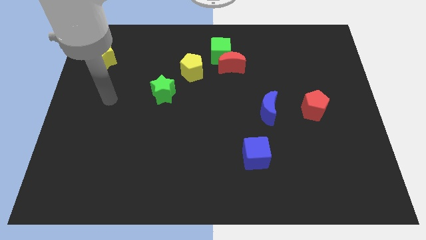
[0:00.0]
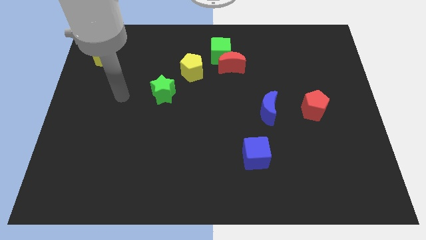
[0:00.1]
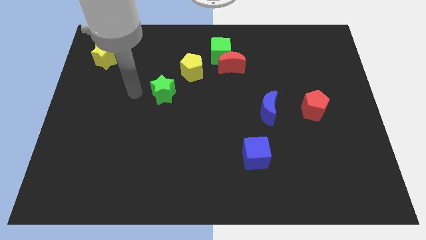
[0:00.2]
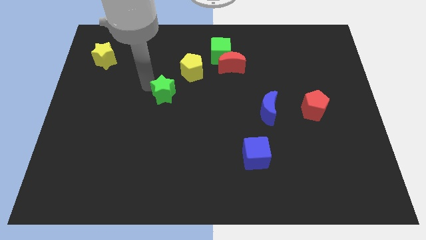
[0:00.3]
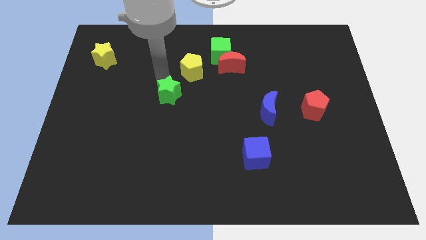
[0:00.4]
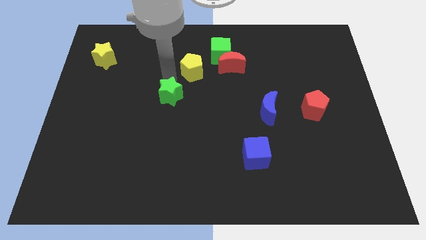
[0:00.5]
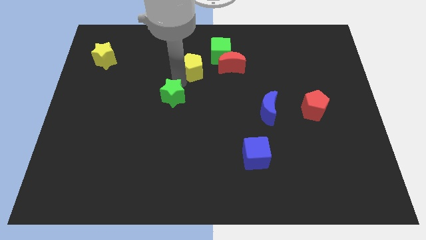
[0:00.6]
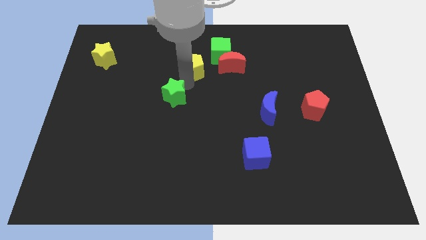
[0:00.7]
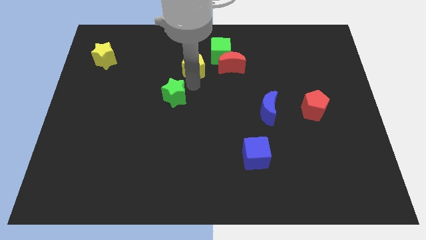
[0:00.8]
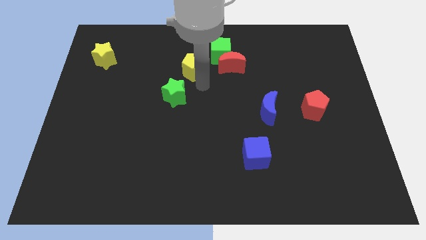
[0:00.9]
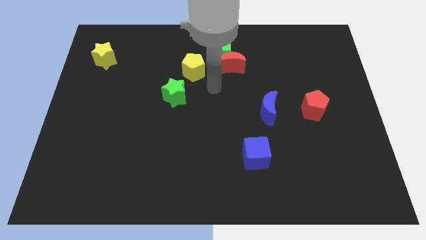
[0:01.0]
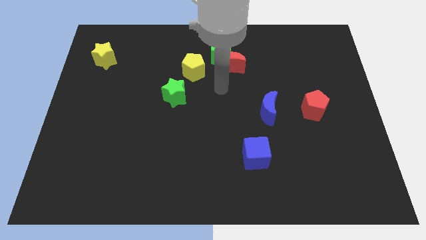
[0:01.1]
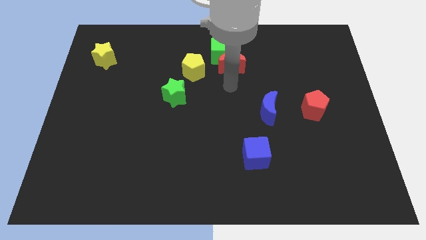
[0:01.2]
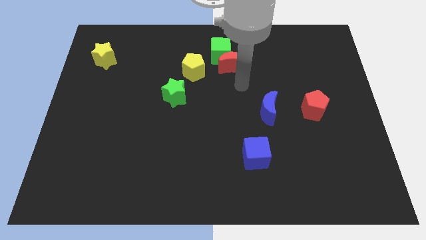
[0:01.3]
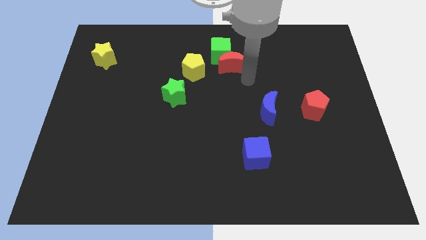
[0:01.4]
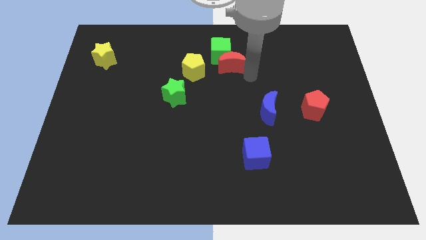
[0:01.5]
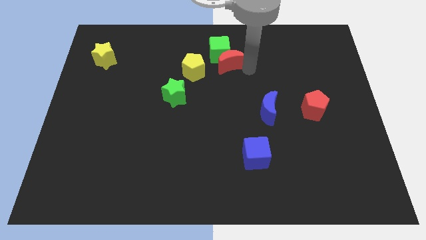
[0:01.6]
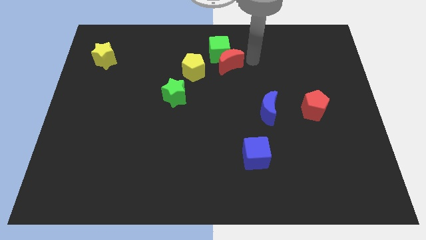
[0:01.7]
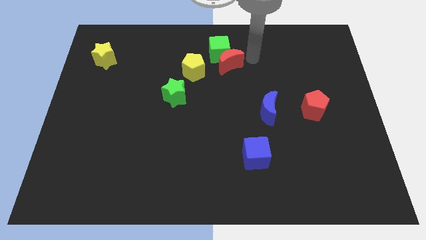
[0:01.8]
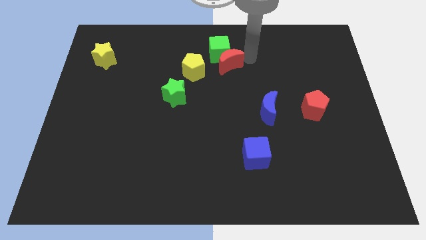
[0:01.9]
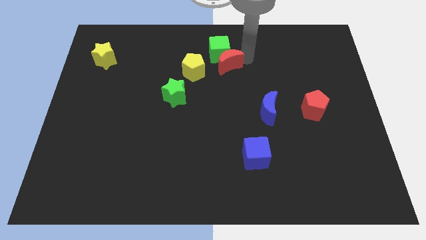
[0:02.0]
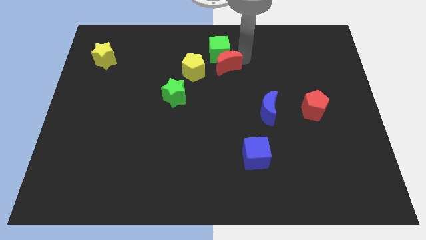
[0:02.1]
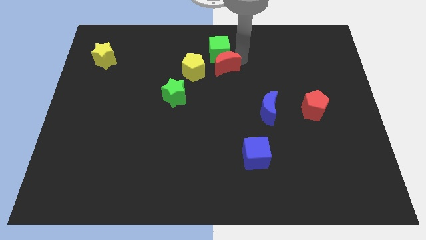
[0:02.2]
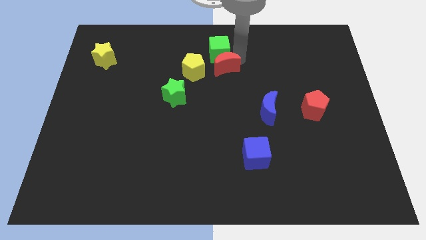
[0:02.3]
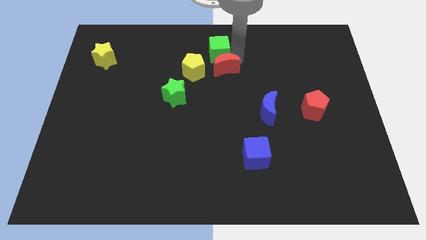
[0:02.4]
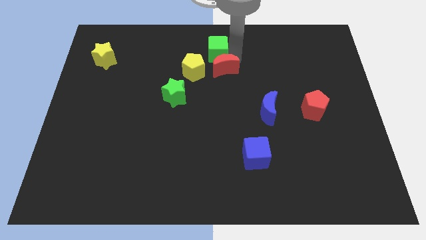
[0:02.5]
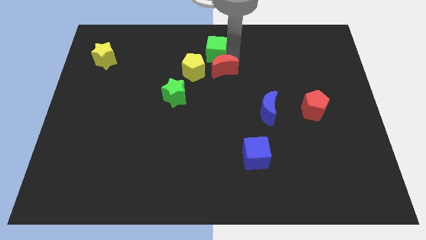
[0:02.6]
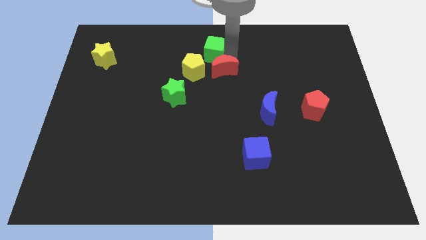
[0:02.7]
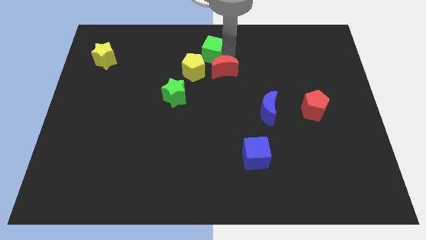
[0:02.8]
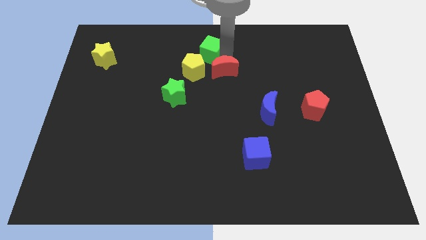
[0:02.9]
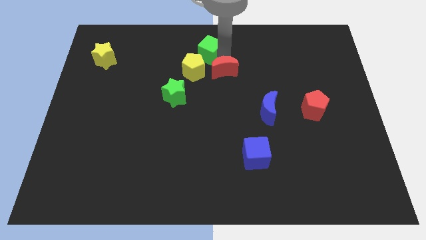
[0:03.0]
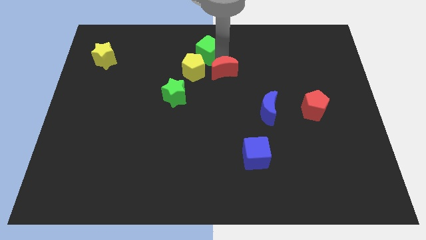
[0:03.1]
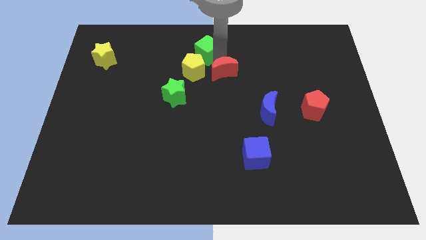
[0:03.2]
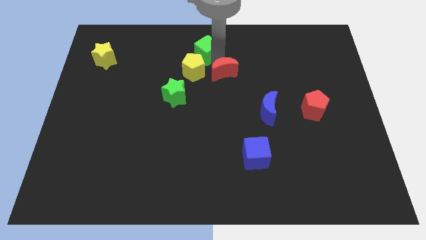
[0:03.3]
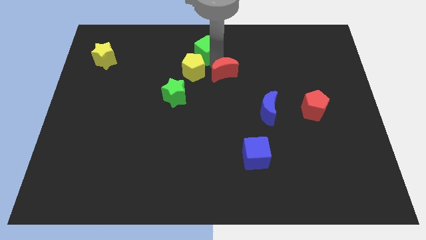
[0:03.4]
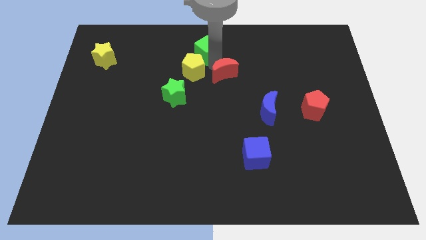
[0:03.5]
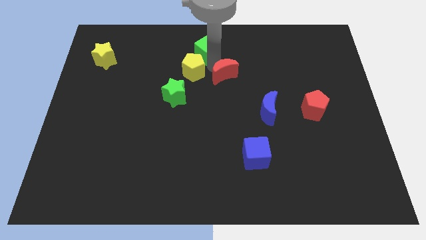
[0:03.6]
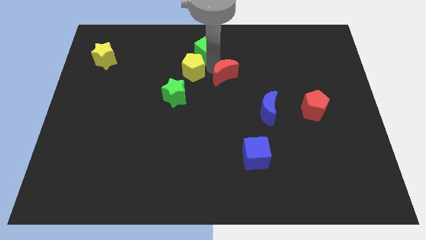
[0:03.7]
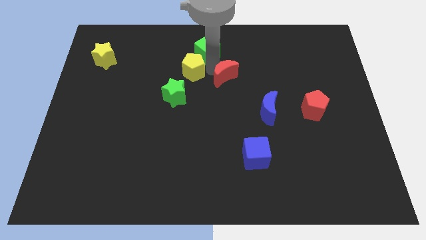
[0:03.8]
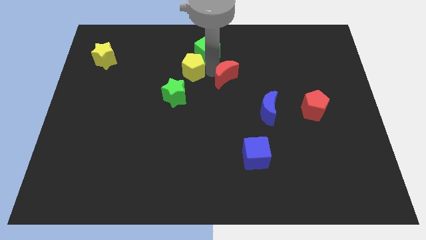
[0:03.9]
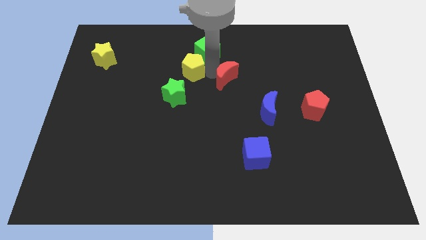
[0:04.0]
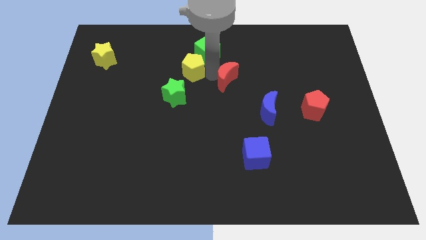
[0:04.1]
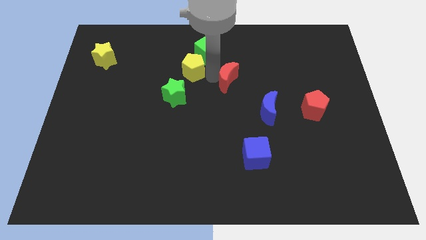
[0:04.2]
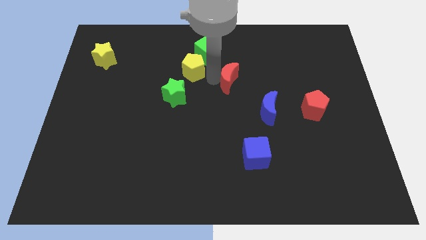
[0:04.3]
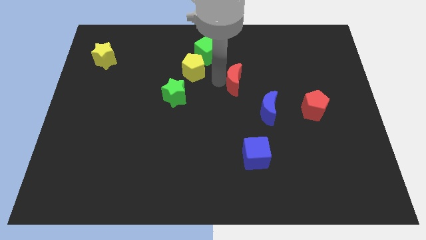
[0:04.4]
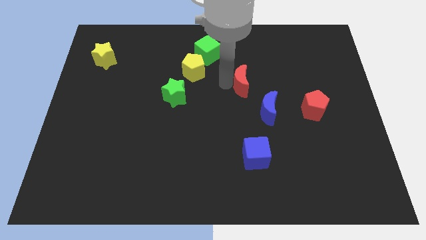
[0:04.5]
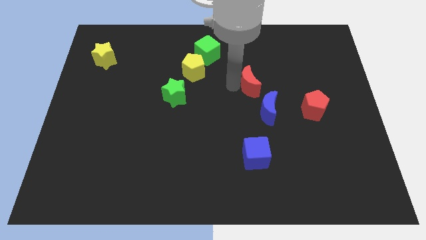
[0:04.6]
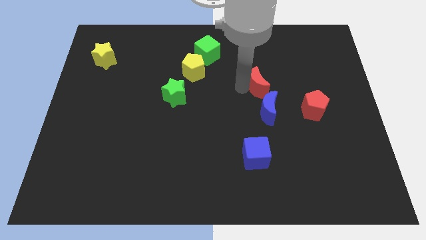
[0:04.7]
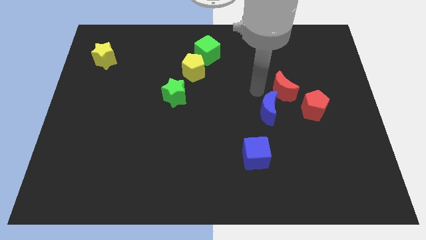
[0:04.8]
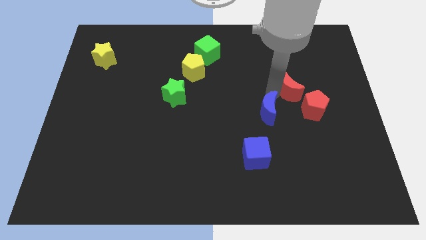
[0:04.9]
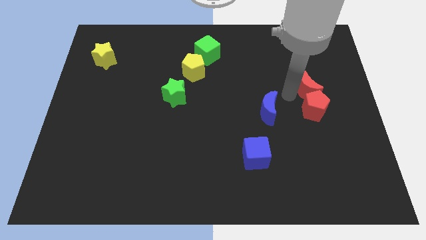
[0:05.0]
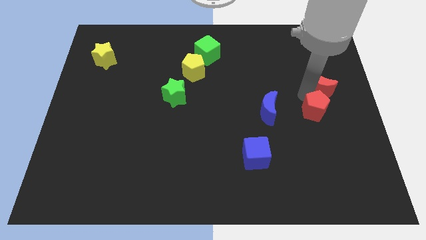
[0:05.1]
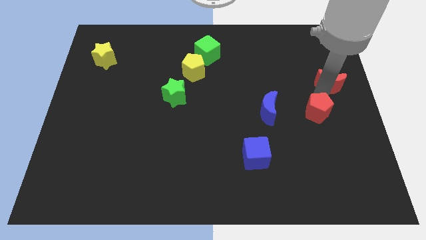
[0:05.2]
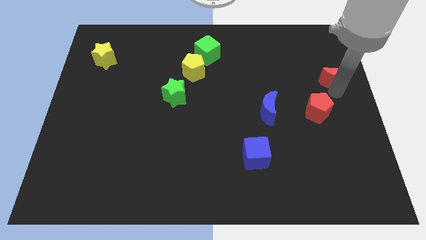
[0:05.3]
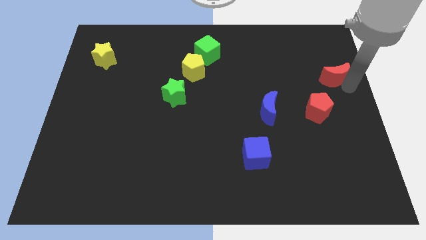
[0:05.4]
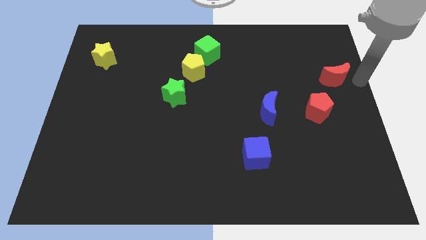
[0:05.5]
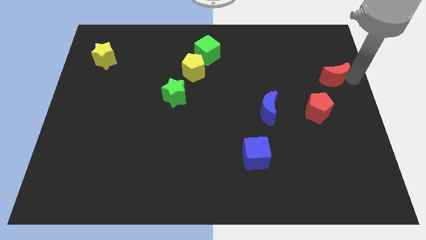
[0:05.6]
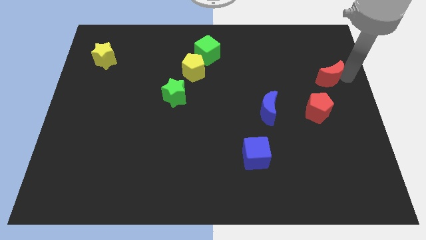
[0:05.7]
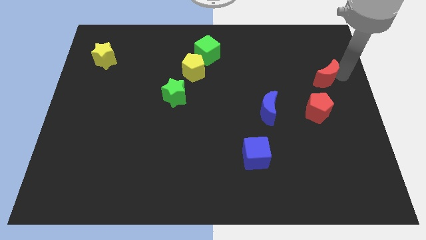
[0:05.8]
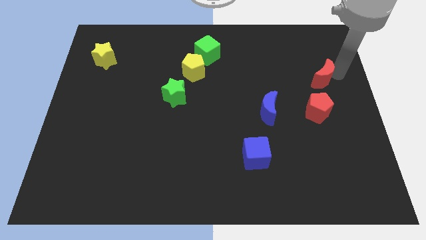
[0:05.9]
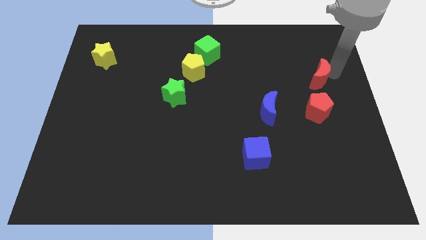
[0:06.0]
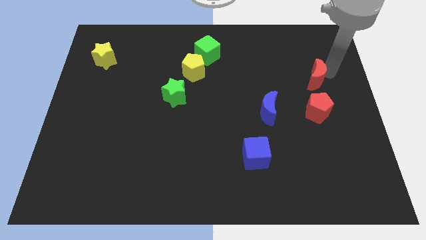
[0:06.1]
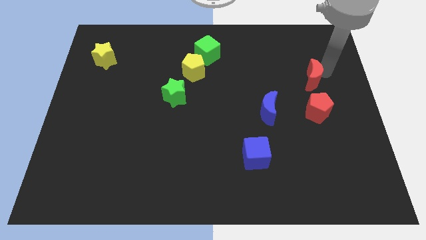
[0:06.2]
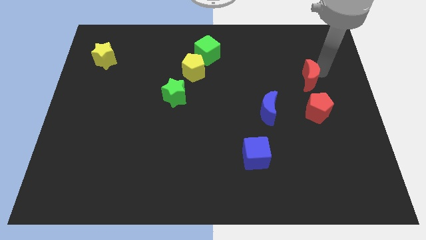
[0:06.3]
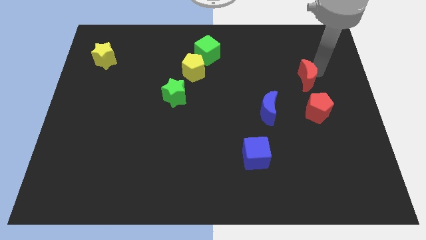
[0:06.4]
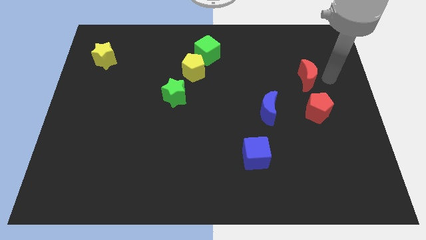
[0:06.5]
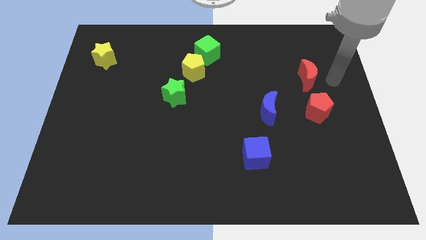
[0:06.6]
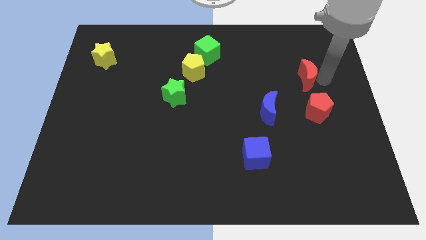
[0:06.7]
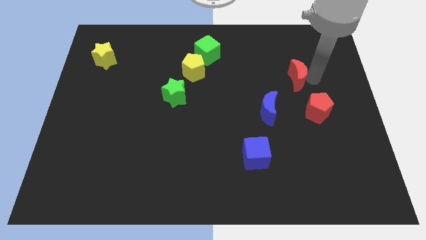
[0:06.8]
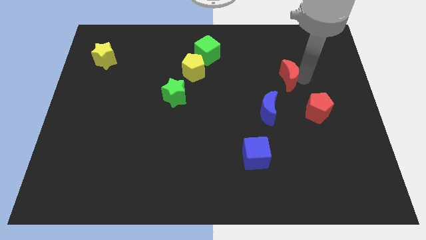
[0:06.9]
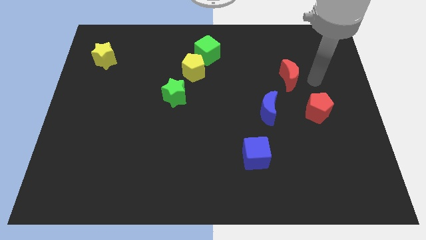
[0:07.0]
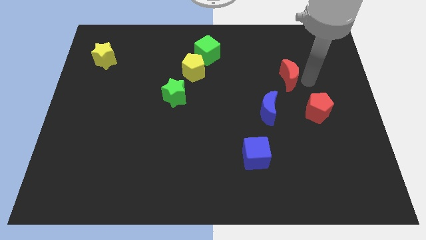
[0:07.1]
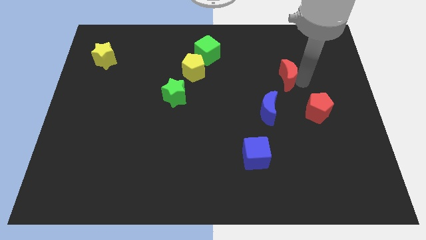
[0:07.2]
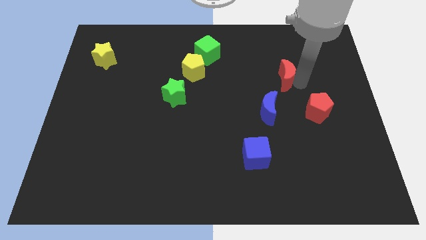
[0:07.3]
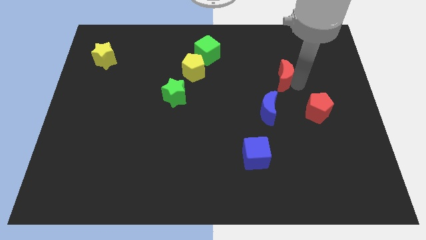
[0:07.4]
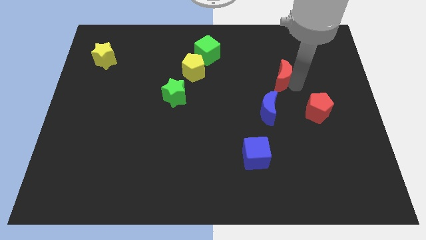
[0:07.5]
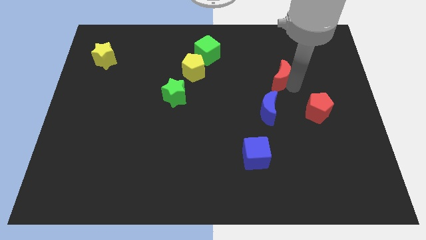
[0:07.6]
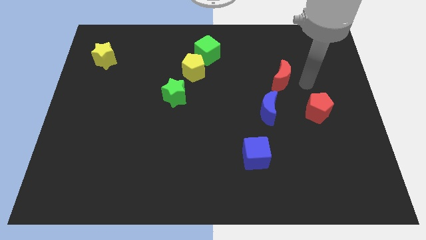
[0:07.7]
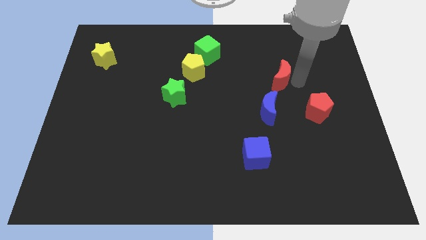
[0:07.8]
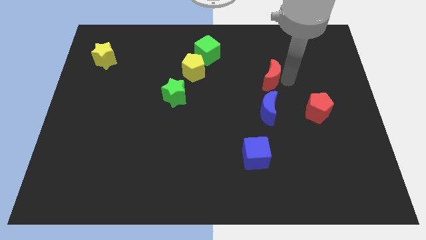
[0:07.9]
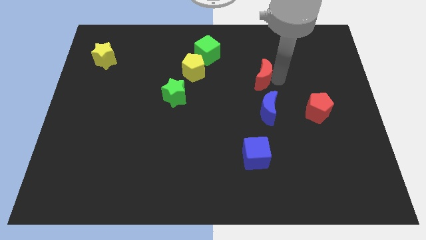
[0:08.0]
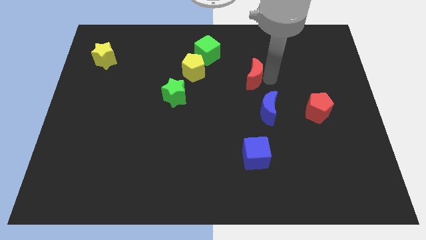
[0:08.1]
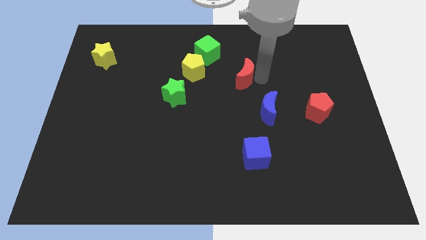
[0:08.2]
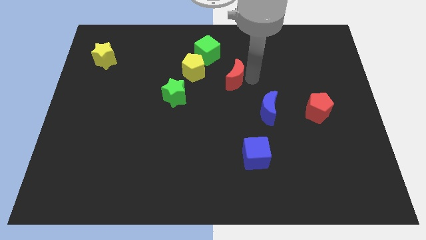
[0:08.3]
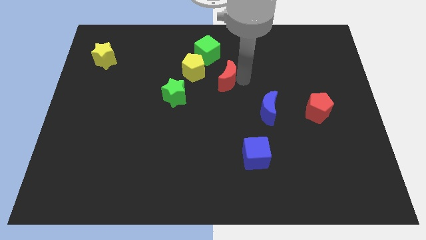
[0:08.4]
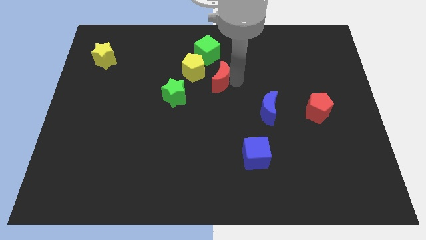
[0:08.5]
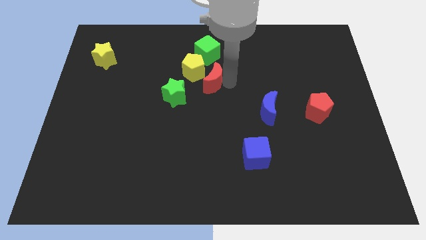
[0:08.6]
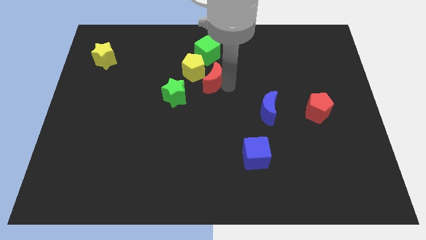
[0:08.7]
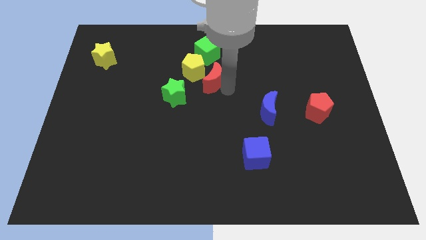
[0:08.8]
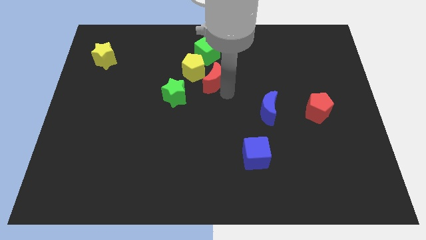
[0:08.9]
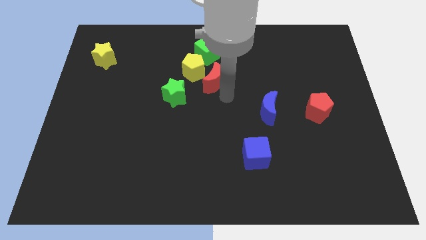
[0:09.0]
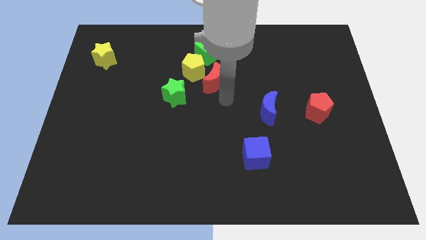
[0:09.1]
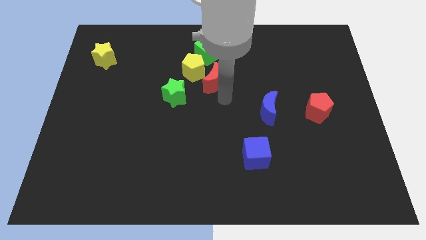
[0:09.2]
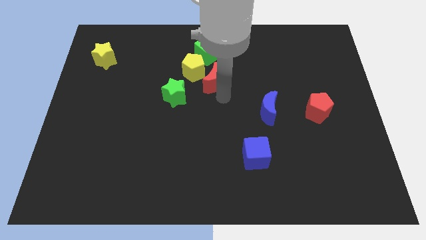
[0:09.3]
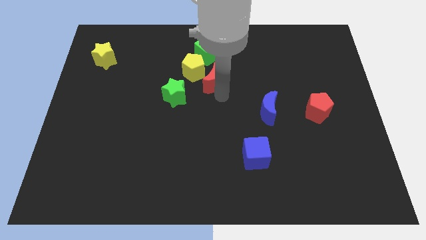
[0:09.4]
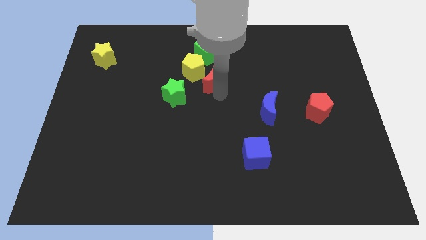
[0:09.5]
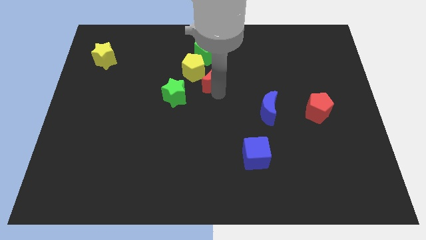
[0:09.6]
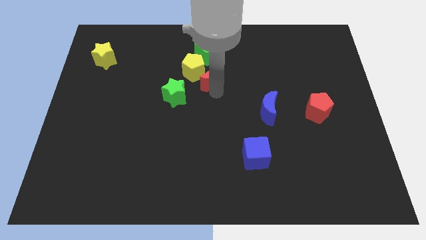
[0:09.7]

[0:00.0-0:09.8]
put the red moon next to the yellow pentagon
